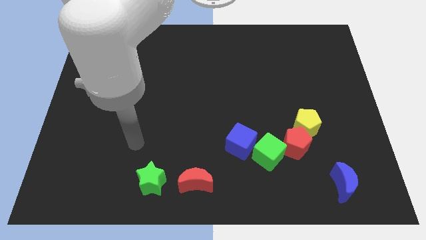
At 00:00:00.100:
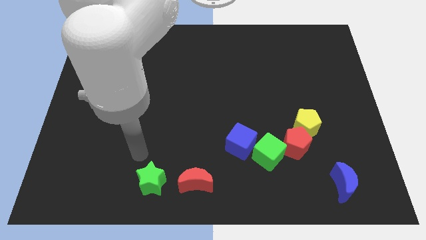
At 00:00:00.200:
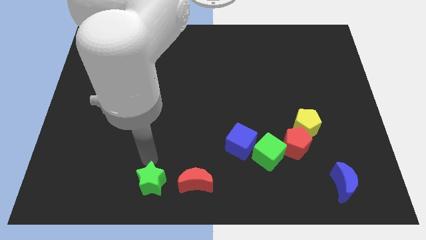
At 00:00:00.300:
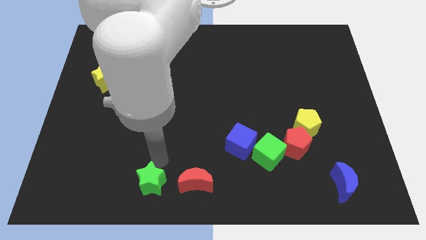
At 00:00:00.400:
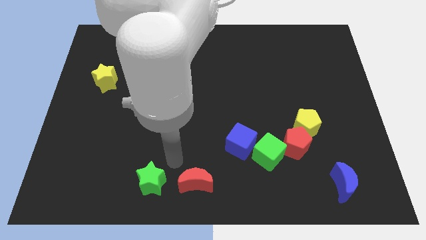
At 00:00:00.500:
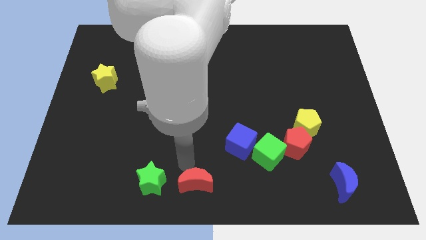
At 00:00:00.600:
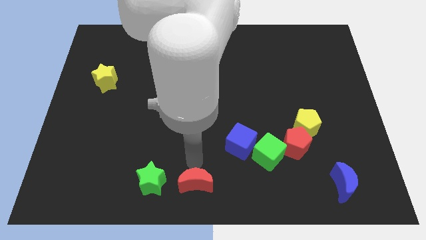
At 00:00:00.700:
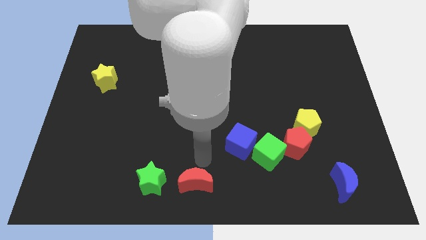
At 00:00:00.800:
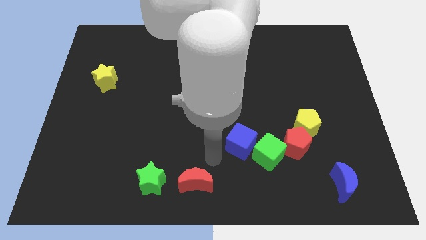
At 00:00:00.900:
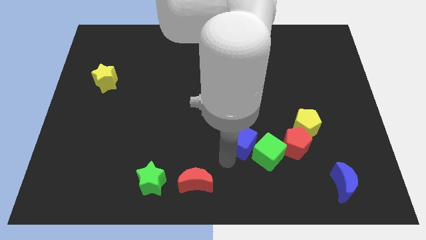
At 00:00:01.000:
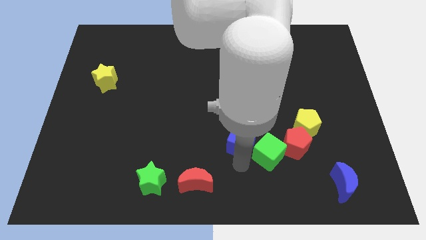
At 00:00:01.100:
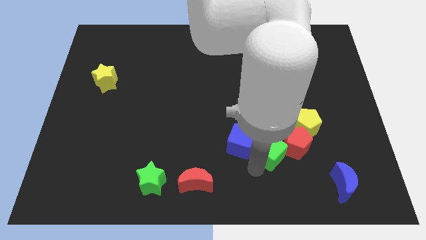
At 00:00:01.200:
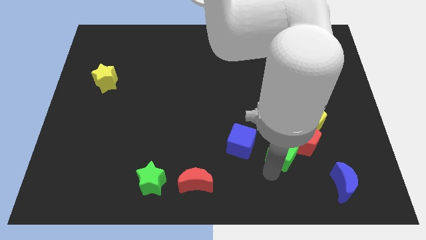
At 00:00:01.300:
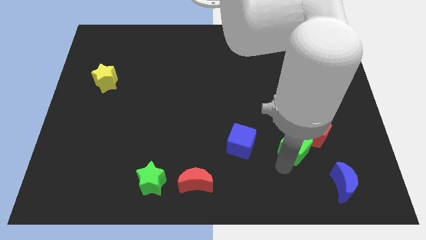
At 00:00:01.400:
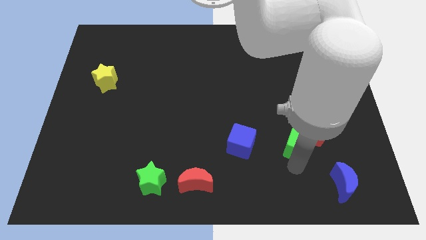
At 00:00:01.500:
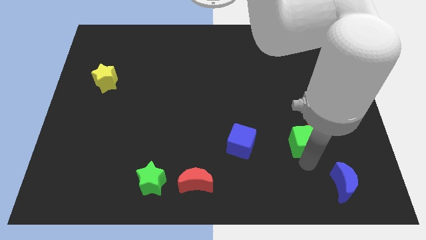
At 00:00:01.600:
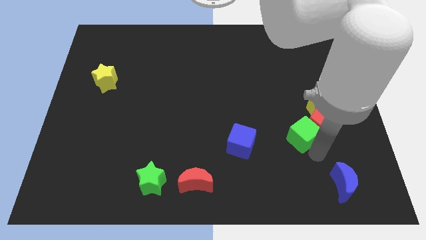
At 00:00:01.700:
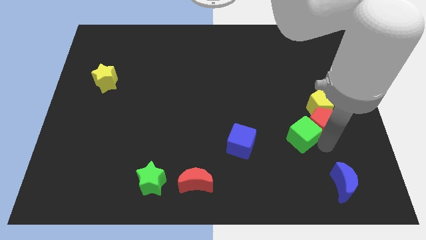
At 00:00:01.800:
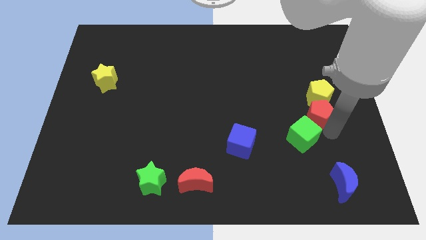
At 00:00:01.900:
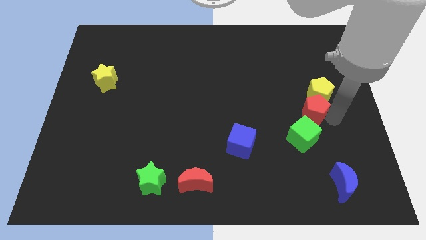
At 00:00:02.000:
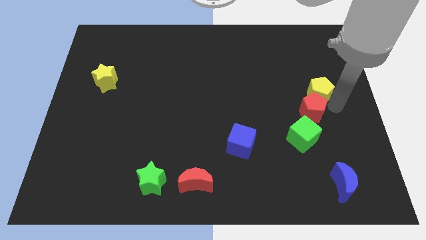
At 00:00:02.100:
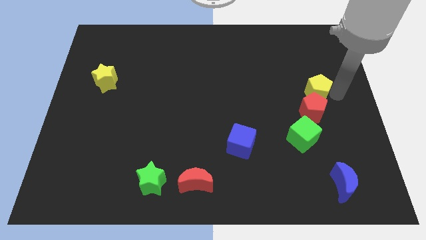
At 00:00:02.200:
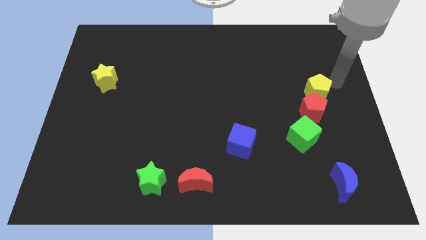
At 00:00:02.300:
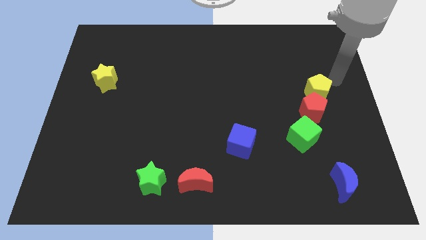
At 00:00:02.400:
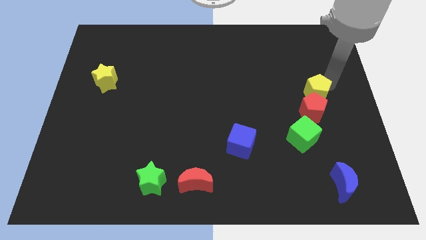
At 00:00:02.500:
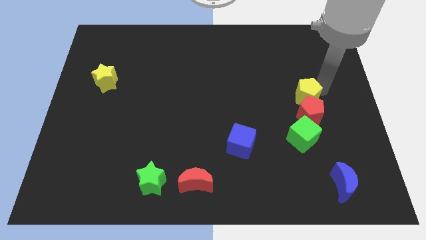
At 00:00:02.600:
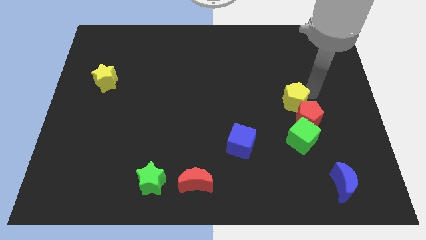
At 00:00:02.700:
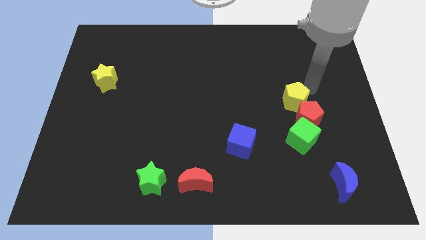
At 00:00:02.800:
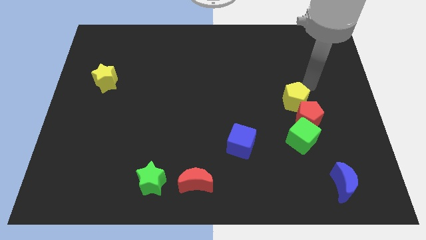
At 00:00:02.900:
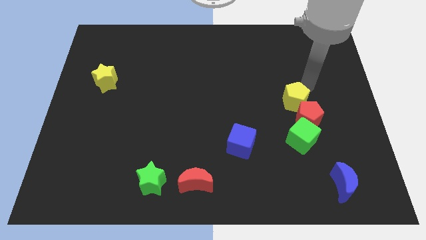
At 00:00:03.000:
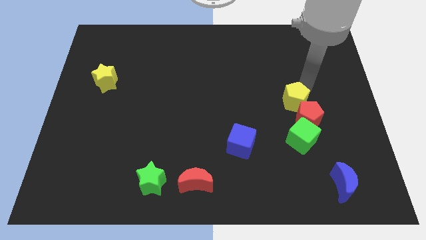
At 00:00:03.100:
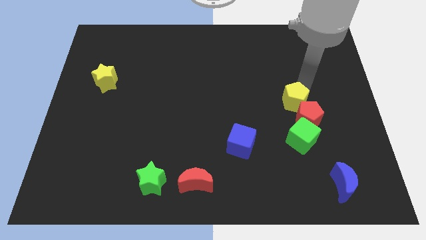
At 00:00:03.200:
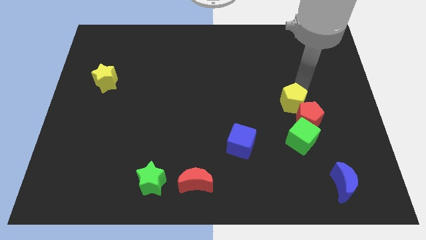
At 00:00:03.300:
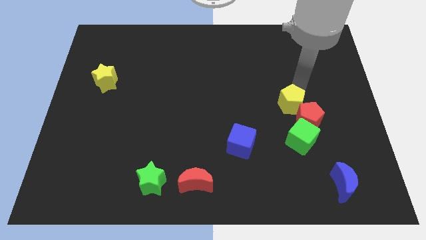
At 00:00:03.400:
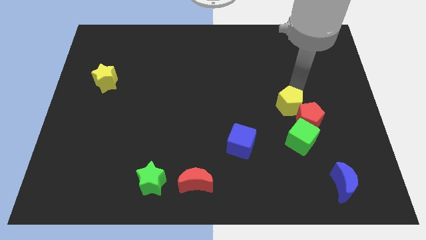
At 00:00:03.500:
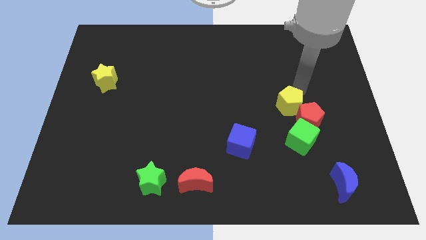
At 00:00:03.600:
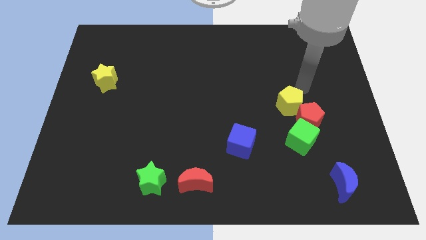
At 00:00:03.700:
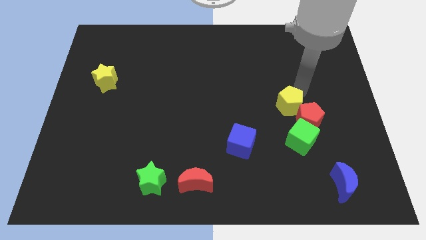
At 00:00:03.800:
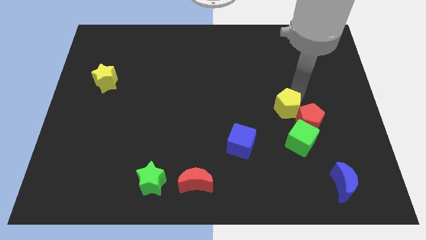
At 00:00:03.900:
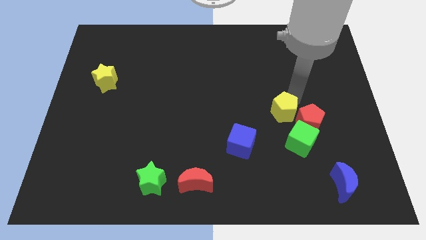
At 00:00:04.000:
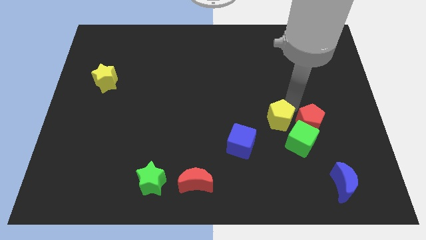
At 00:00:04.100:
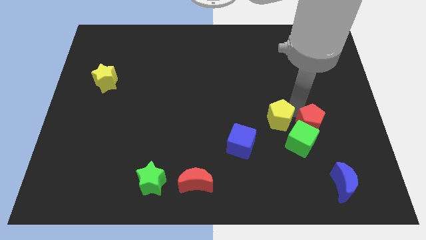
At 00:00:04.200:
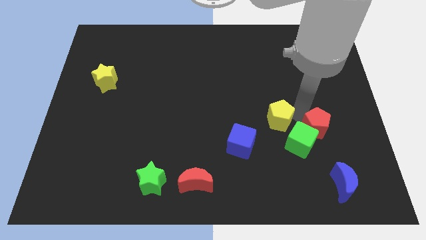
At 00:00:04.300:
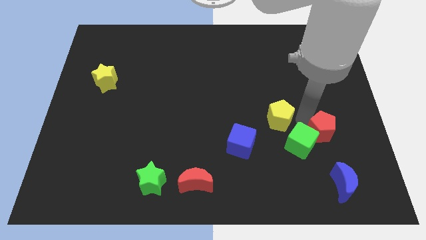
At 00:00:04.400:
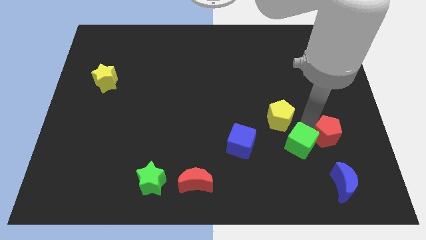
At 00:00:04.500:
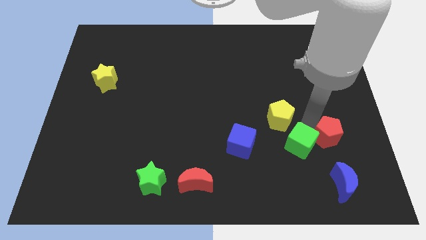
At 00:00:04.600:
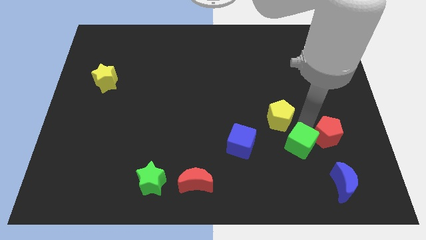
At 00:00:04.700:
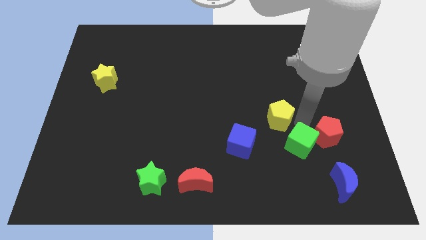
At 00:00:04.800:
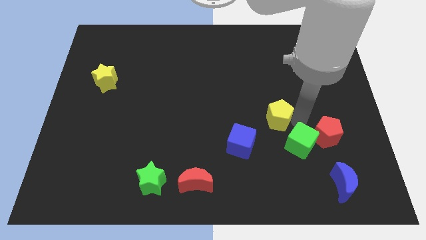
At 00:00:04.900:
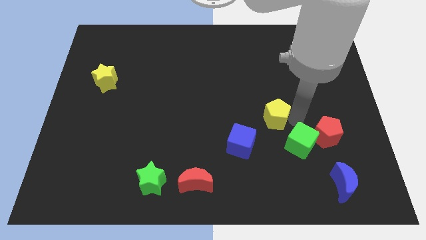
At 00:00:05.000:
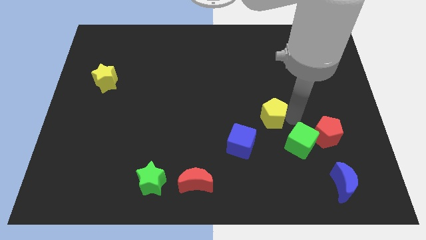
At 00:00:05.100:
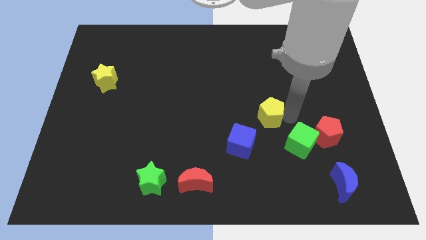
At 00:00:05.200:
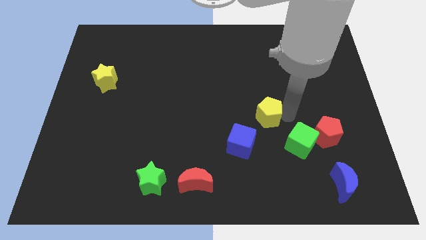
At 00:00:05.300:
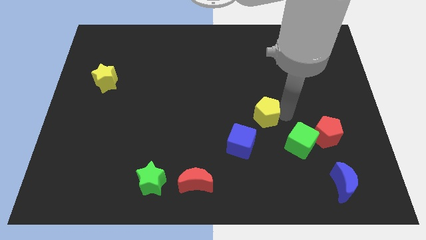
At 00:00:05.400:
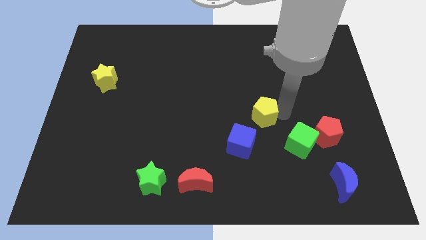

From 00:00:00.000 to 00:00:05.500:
slide the yellow pentagon to the middle of the board
